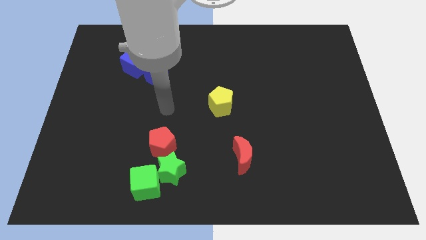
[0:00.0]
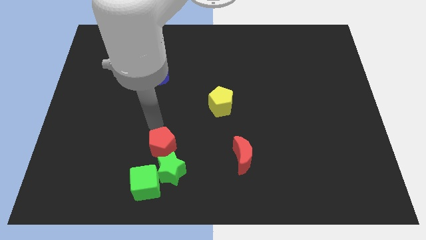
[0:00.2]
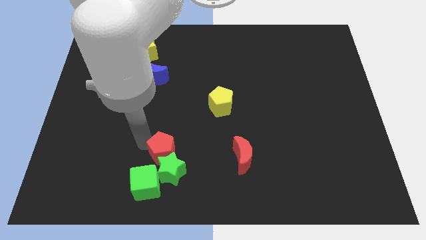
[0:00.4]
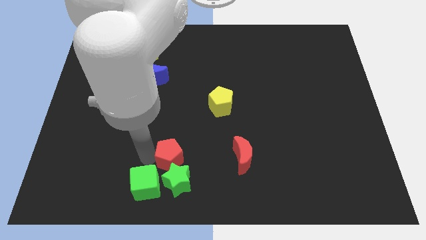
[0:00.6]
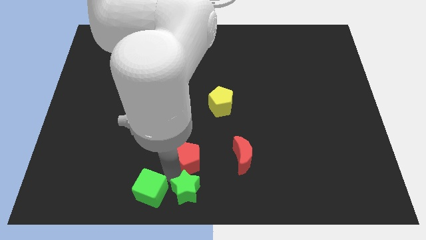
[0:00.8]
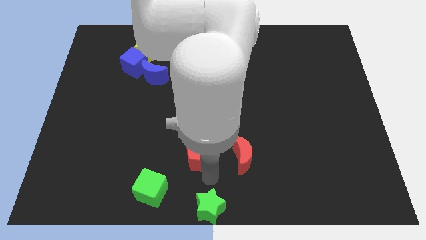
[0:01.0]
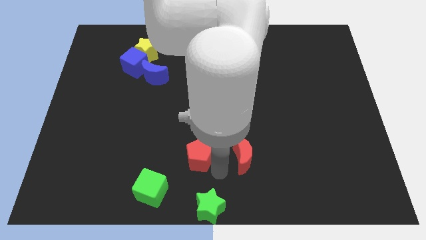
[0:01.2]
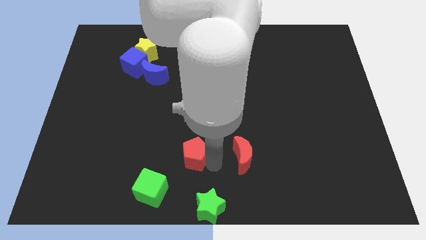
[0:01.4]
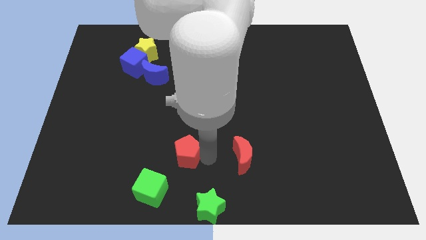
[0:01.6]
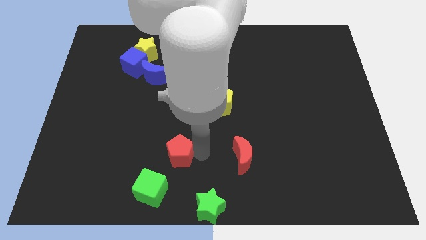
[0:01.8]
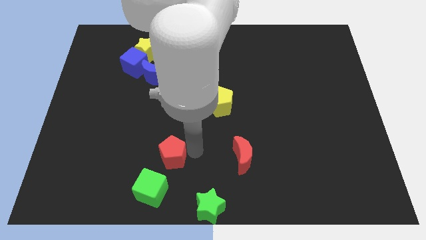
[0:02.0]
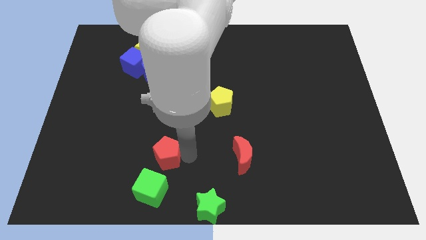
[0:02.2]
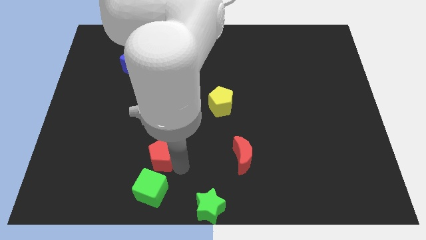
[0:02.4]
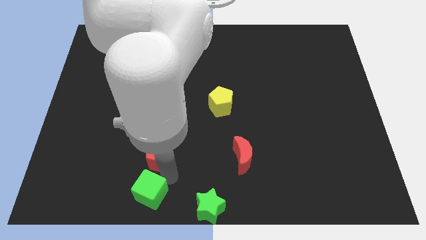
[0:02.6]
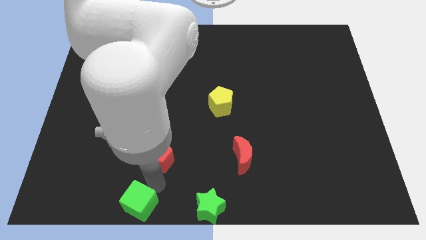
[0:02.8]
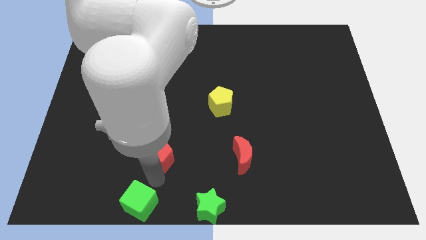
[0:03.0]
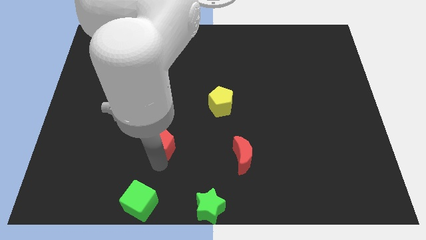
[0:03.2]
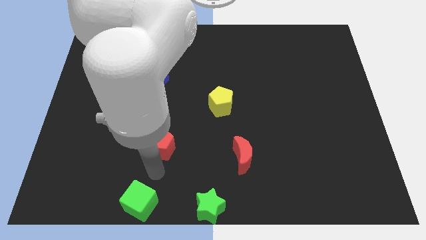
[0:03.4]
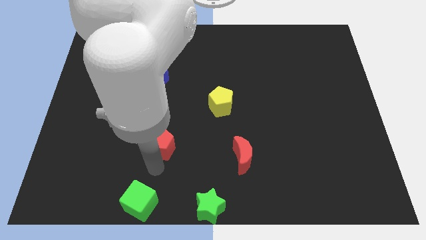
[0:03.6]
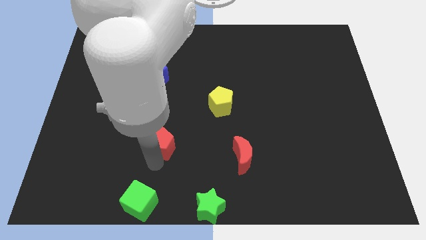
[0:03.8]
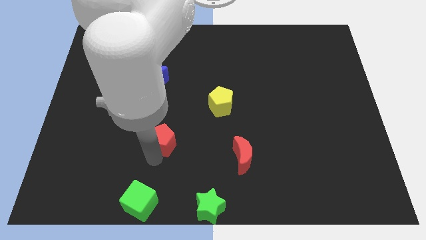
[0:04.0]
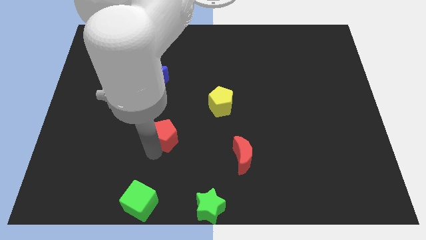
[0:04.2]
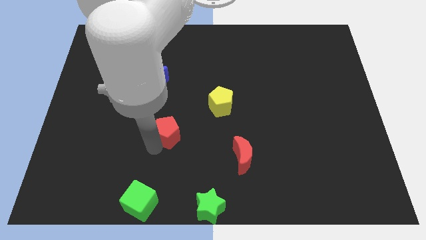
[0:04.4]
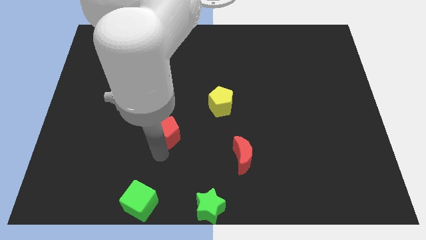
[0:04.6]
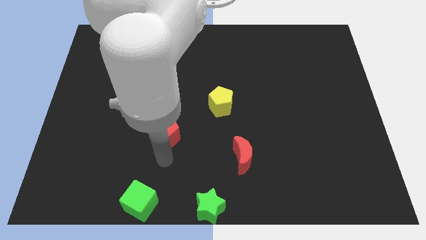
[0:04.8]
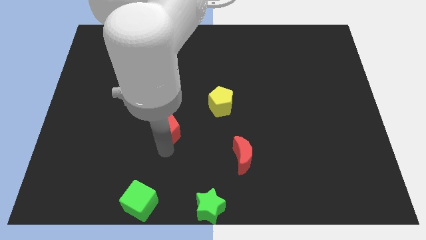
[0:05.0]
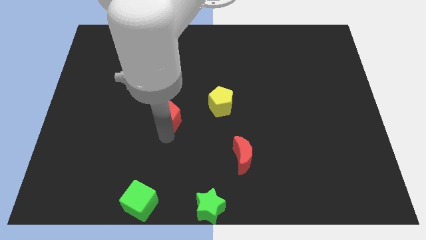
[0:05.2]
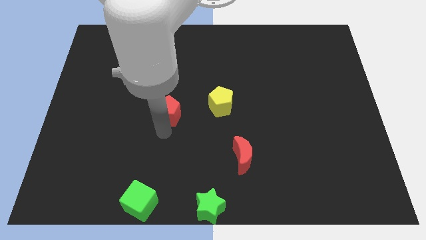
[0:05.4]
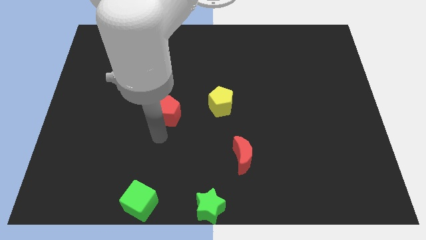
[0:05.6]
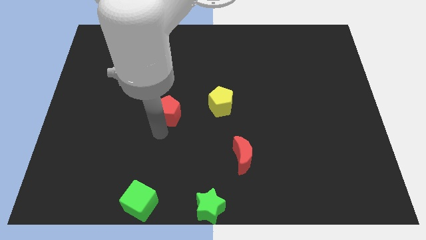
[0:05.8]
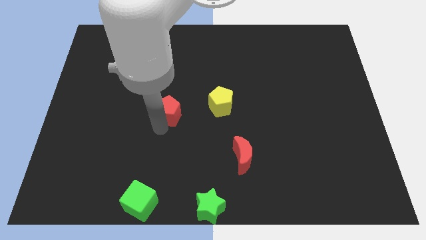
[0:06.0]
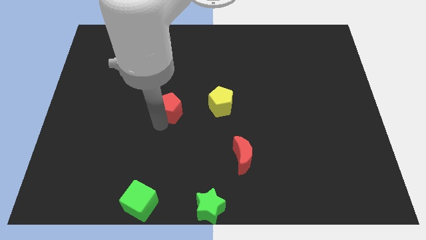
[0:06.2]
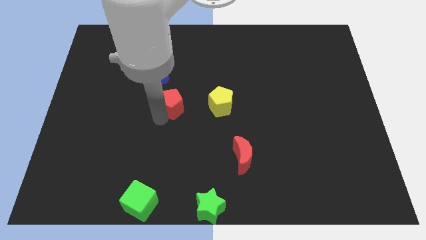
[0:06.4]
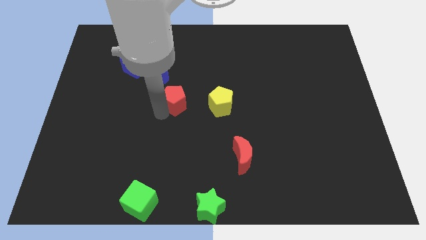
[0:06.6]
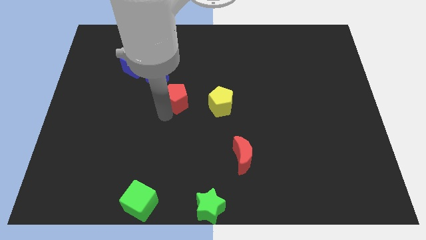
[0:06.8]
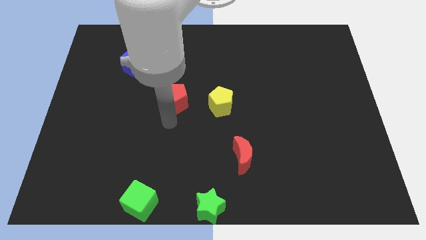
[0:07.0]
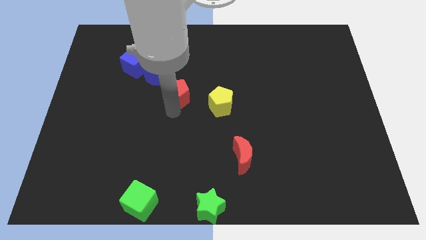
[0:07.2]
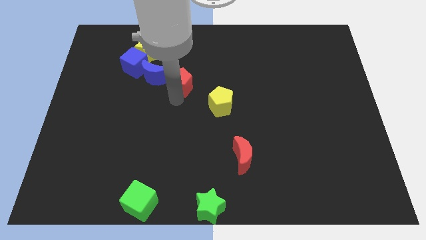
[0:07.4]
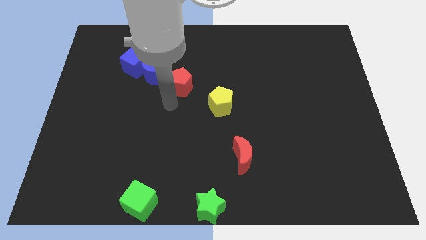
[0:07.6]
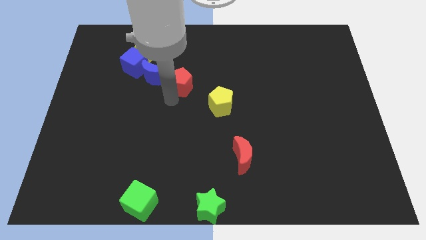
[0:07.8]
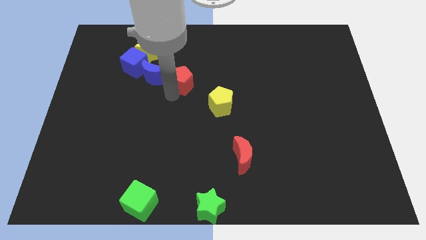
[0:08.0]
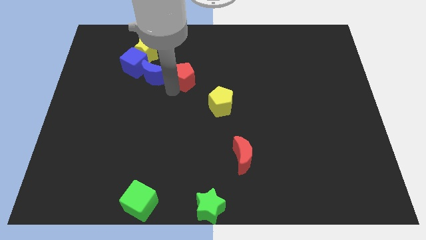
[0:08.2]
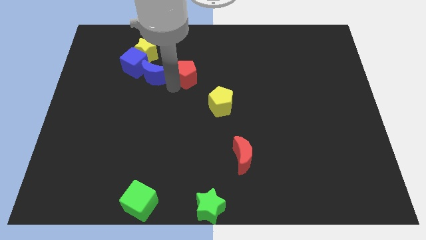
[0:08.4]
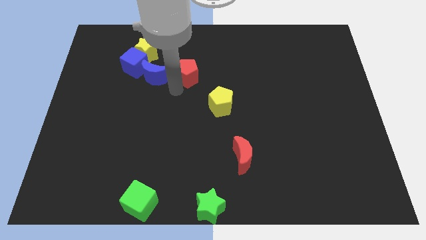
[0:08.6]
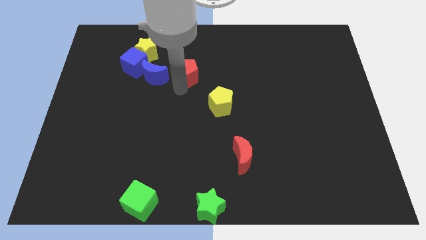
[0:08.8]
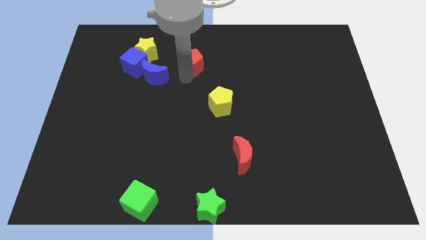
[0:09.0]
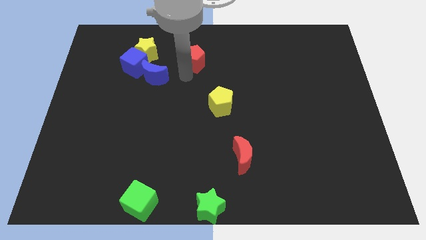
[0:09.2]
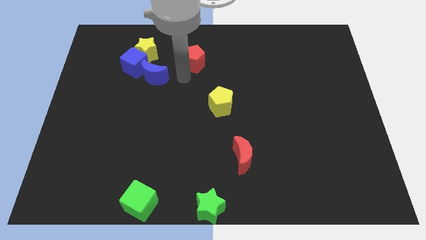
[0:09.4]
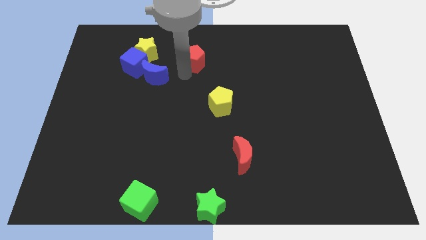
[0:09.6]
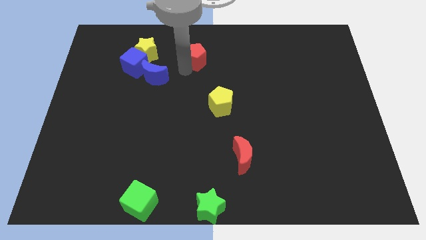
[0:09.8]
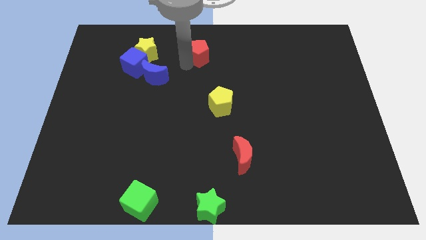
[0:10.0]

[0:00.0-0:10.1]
move the red pentagon to the top

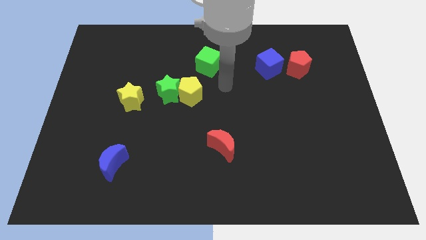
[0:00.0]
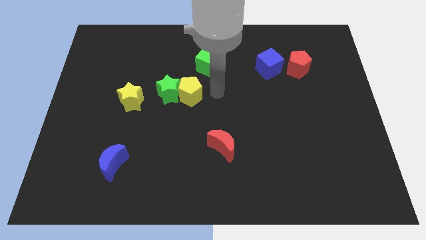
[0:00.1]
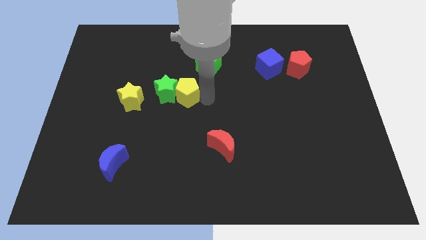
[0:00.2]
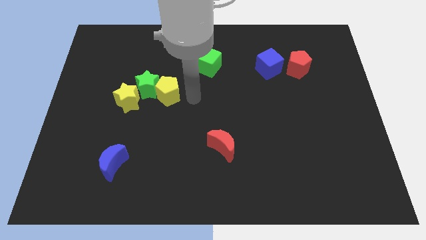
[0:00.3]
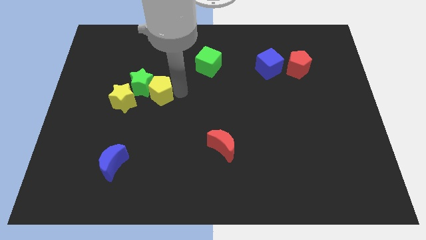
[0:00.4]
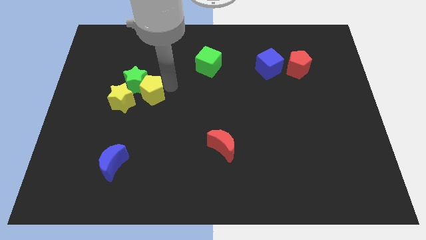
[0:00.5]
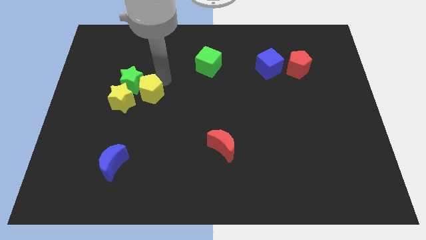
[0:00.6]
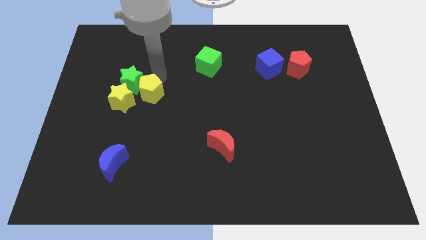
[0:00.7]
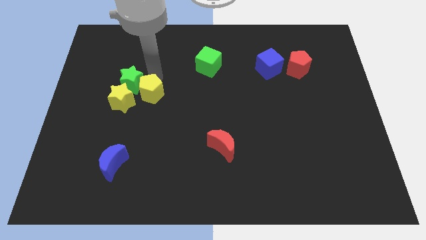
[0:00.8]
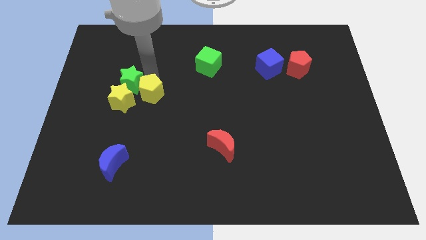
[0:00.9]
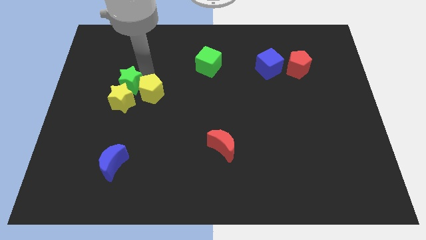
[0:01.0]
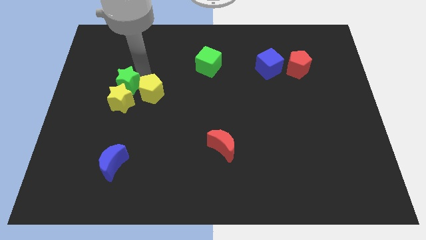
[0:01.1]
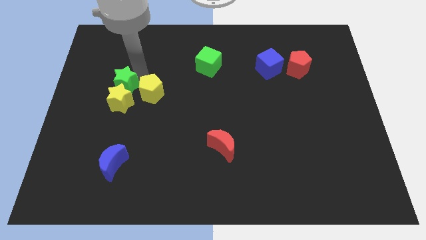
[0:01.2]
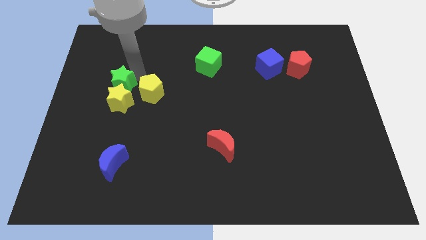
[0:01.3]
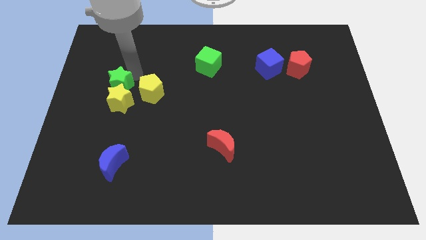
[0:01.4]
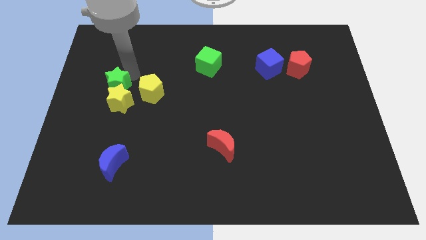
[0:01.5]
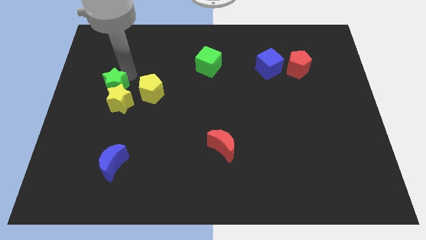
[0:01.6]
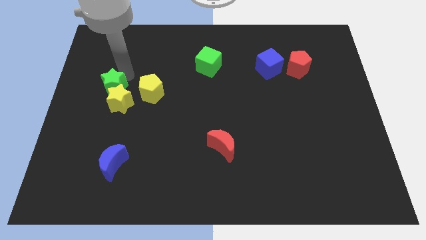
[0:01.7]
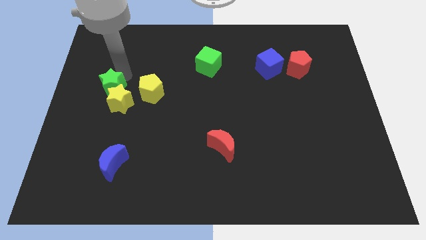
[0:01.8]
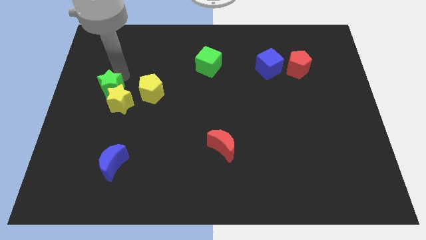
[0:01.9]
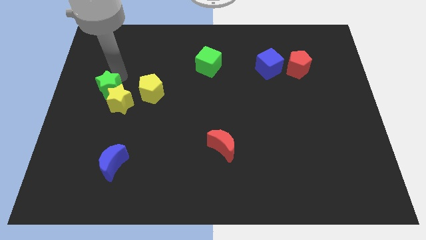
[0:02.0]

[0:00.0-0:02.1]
put the green star to the center left
